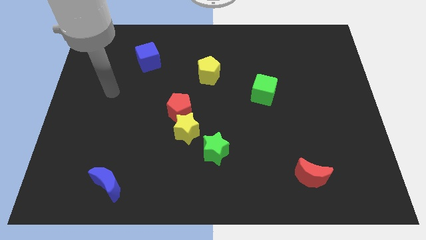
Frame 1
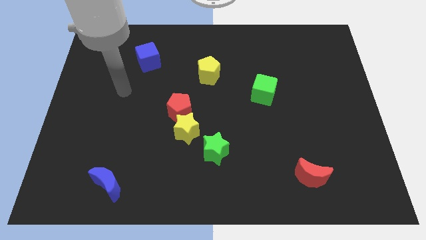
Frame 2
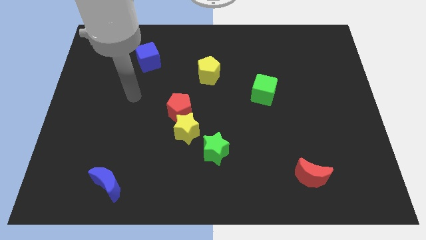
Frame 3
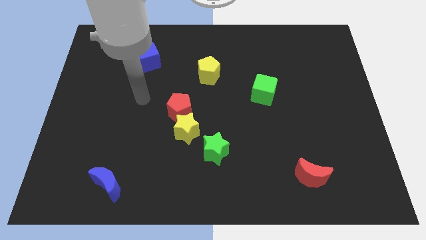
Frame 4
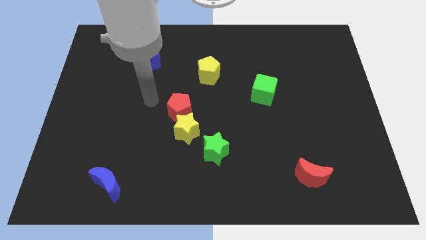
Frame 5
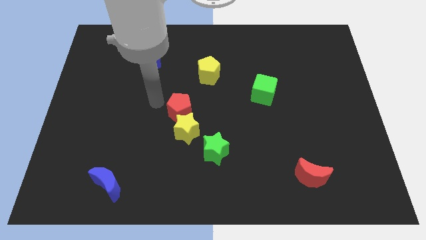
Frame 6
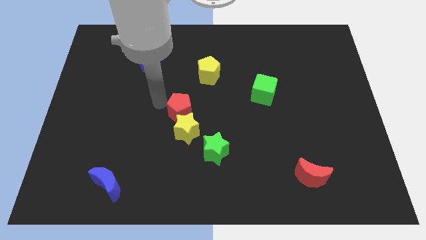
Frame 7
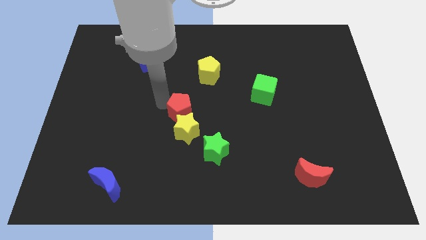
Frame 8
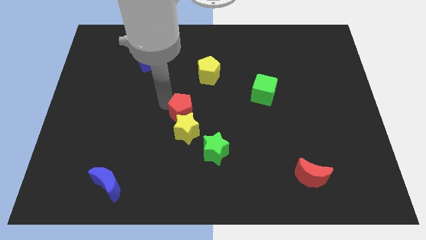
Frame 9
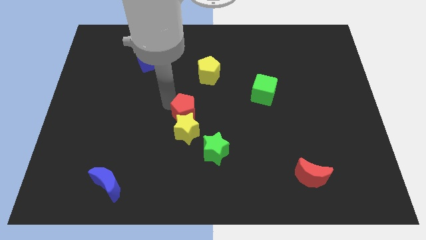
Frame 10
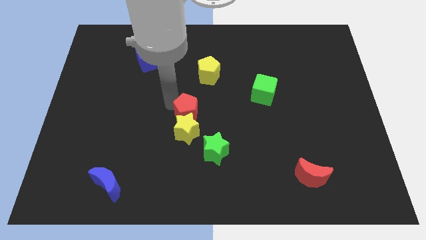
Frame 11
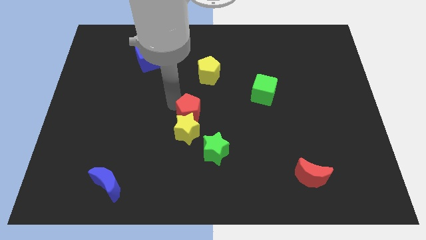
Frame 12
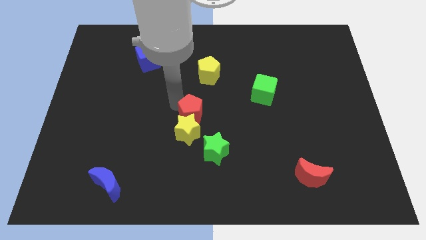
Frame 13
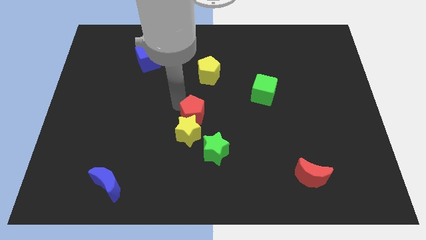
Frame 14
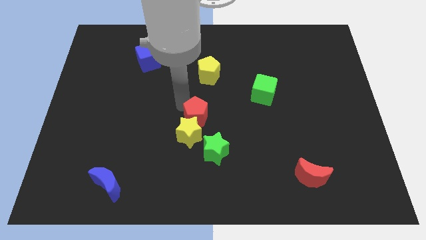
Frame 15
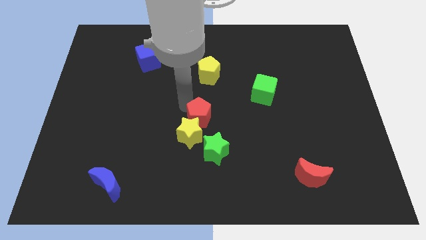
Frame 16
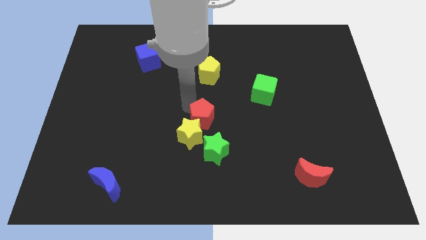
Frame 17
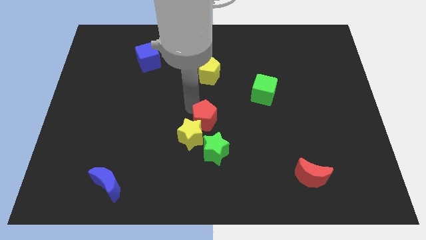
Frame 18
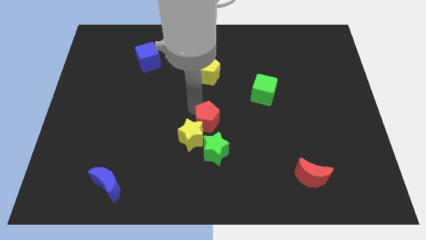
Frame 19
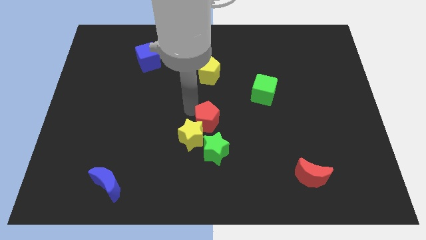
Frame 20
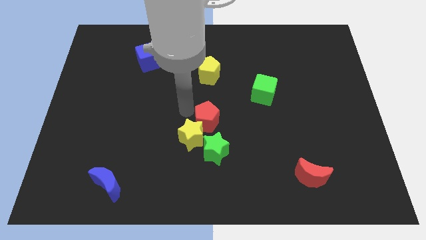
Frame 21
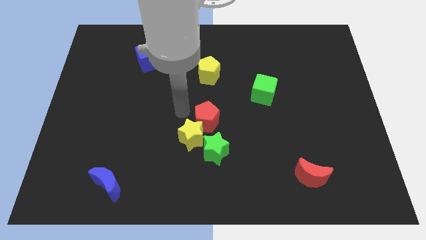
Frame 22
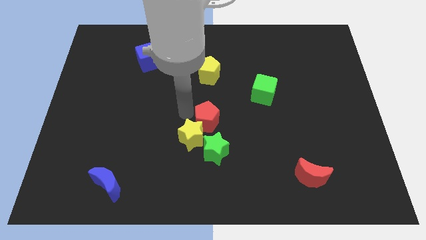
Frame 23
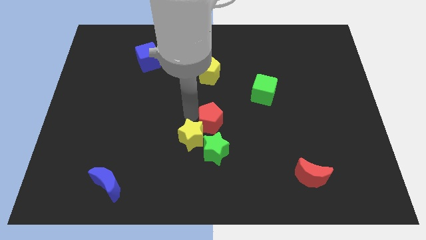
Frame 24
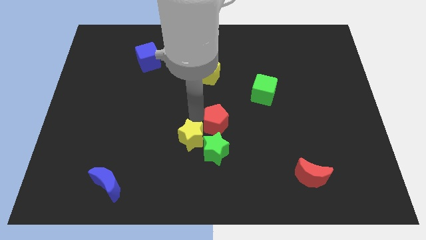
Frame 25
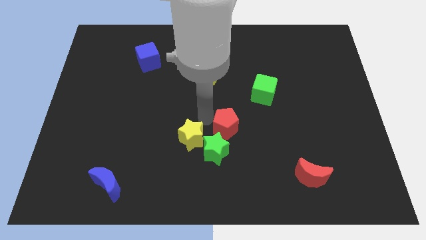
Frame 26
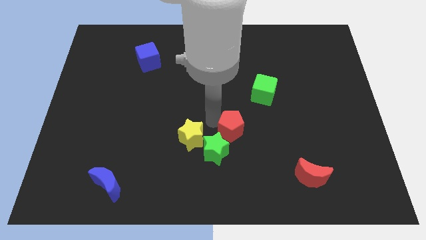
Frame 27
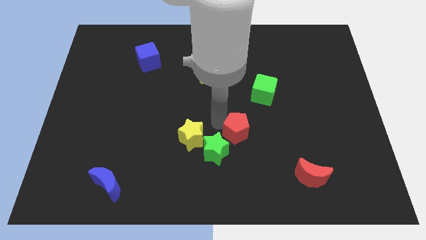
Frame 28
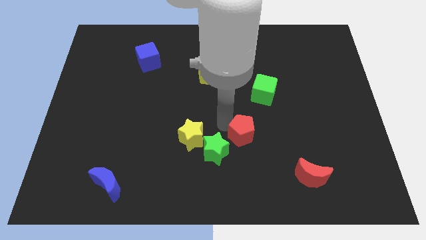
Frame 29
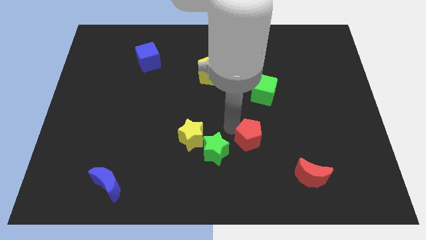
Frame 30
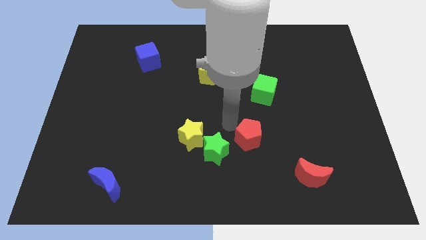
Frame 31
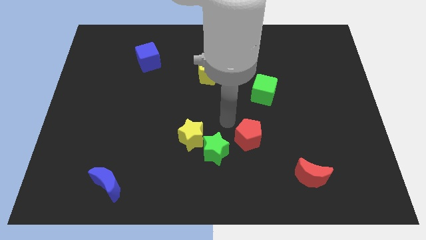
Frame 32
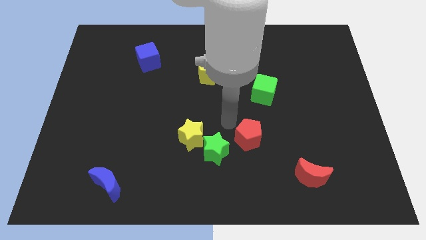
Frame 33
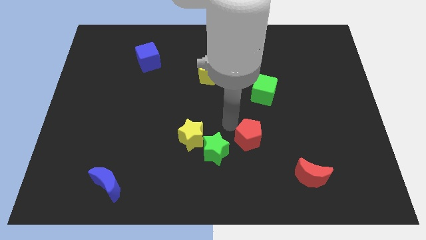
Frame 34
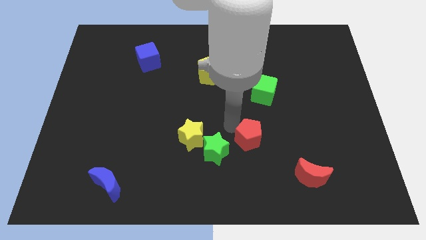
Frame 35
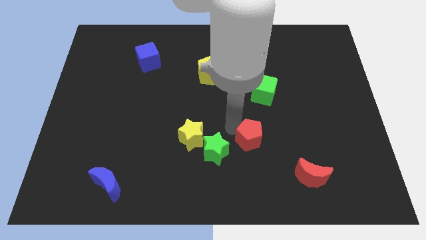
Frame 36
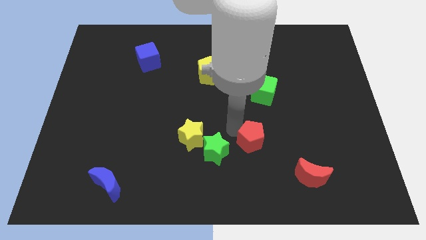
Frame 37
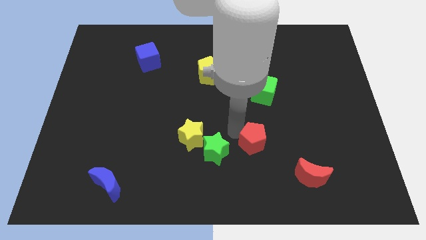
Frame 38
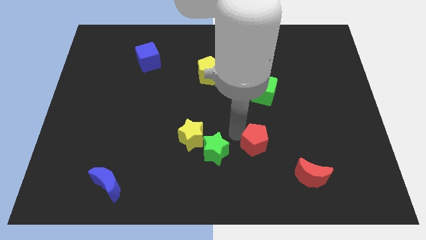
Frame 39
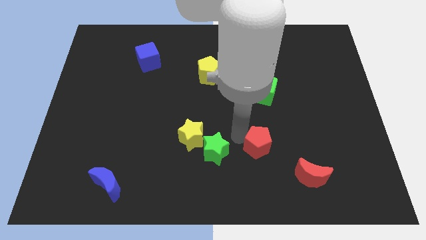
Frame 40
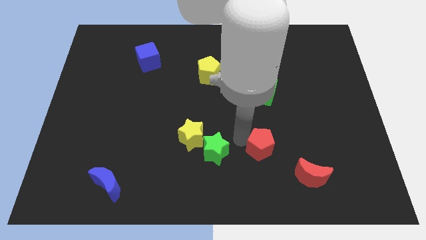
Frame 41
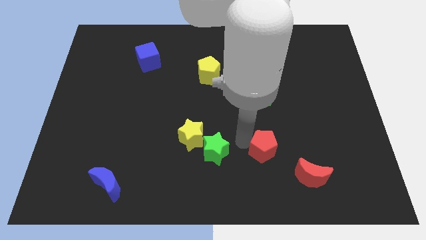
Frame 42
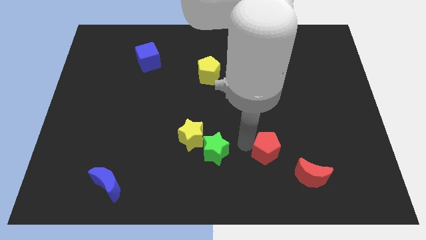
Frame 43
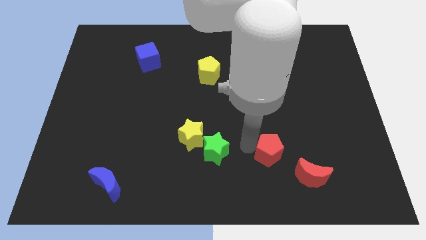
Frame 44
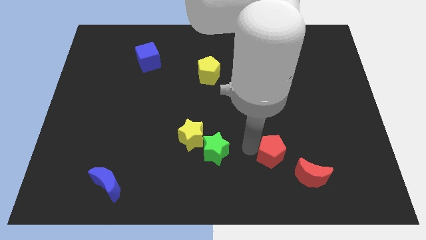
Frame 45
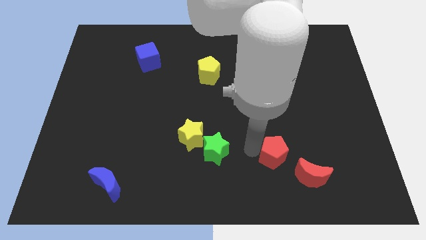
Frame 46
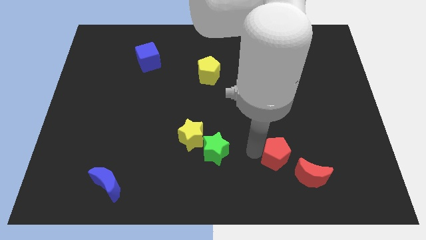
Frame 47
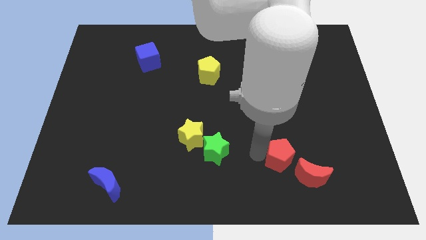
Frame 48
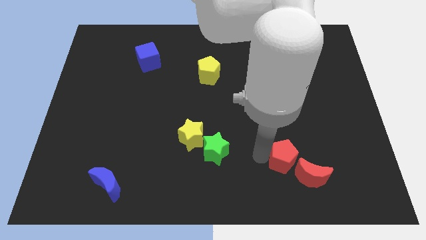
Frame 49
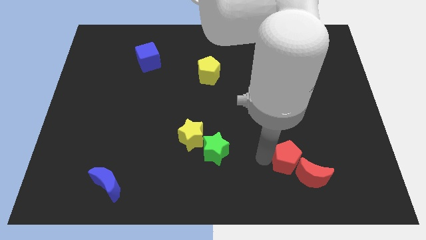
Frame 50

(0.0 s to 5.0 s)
push the red pentagon to the red moon

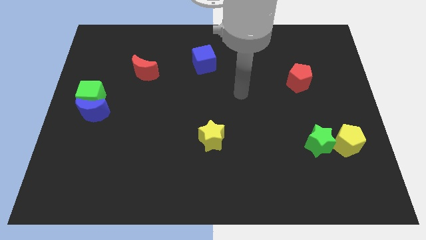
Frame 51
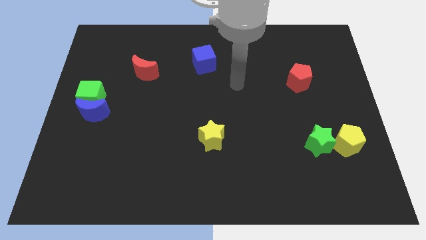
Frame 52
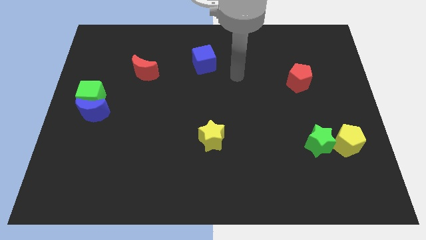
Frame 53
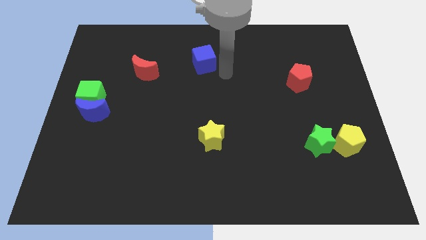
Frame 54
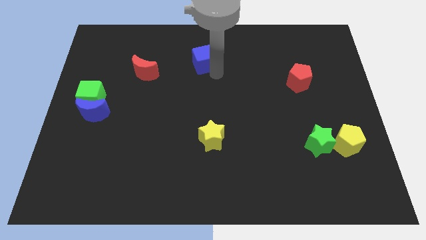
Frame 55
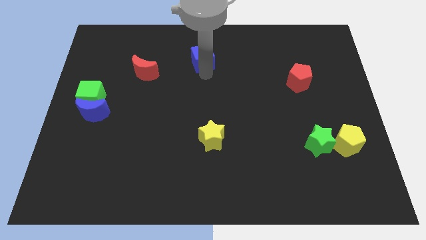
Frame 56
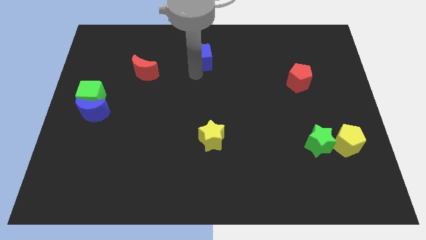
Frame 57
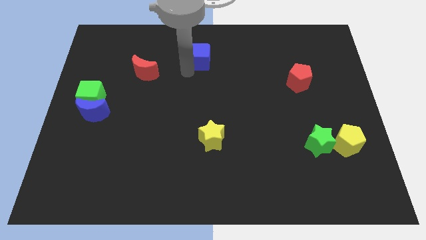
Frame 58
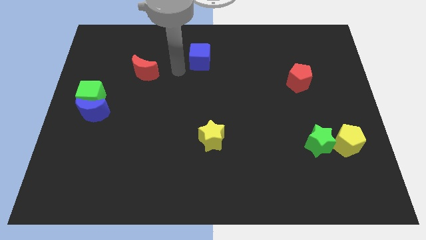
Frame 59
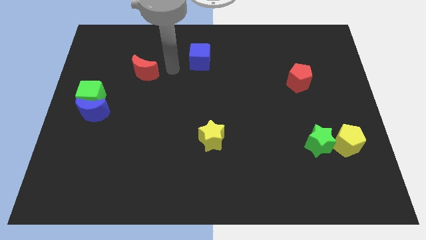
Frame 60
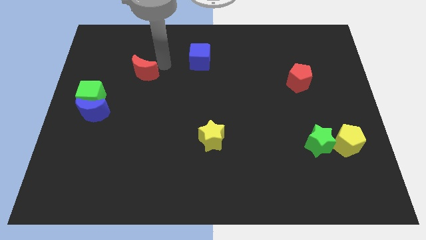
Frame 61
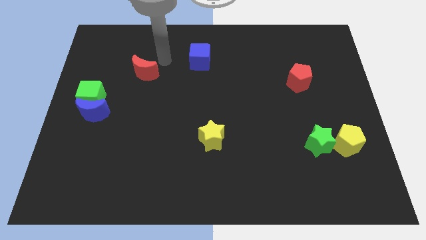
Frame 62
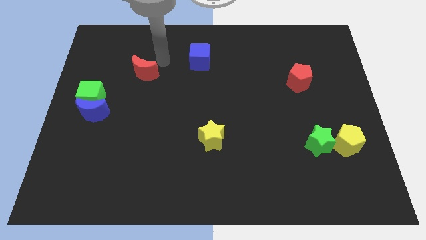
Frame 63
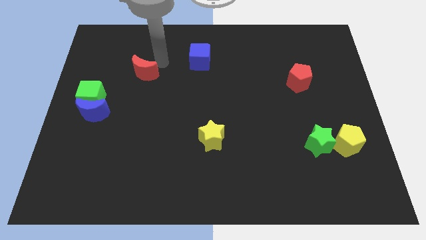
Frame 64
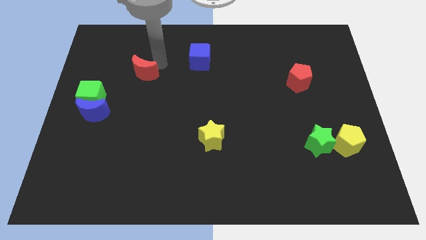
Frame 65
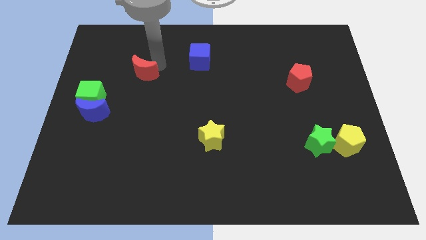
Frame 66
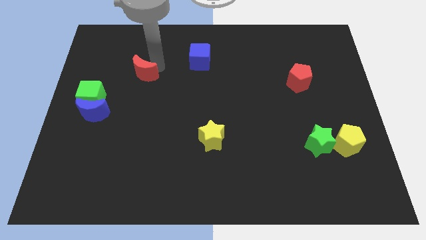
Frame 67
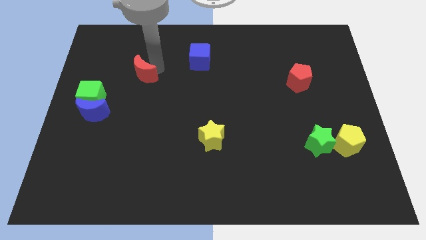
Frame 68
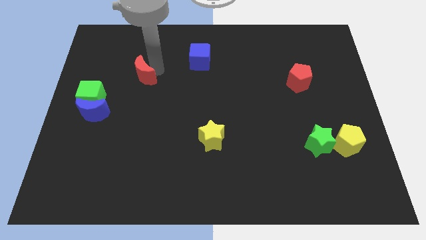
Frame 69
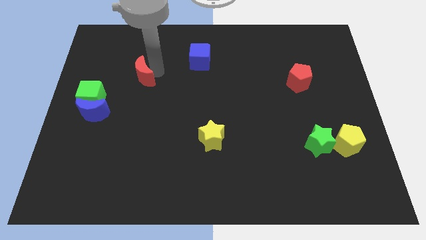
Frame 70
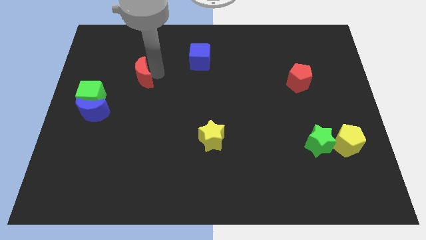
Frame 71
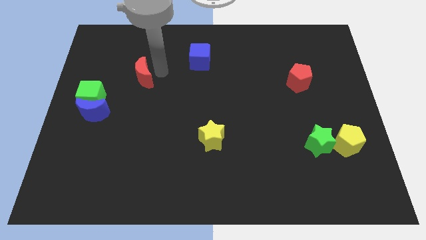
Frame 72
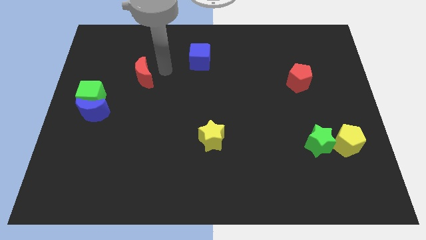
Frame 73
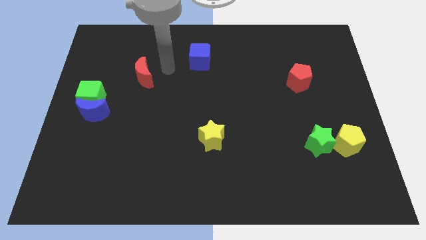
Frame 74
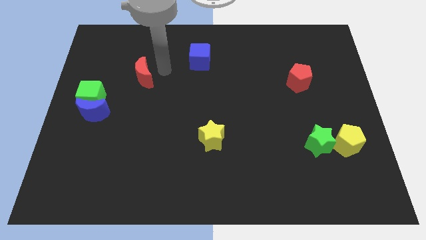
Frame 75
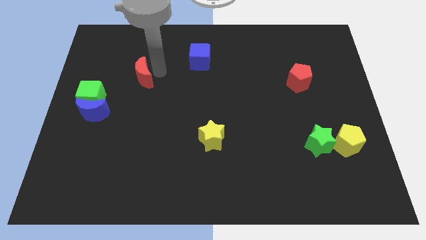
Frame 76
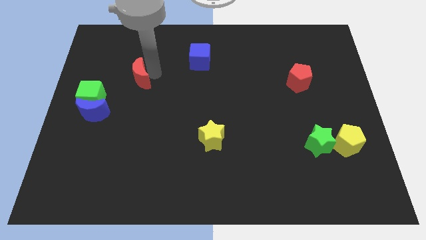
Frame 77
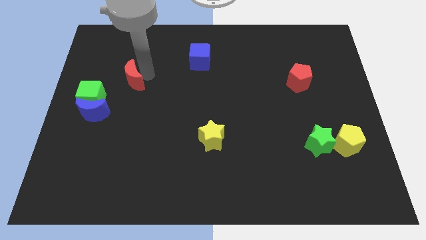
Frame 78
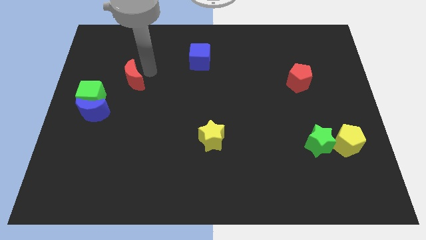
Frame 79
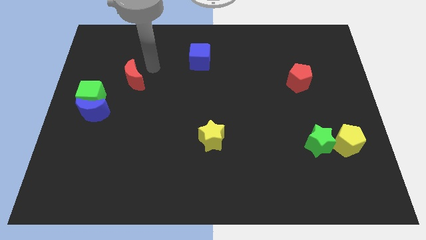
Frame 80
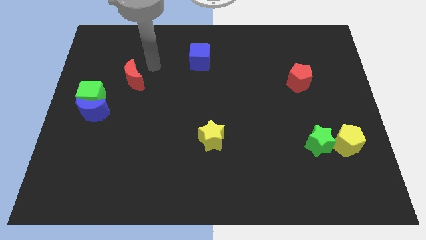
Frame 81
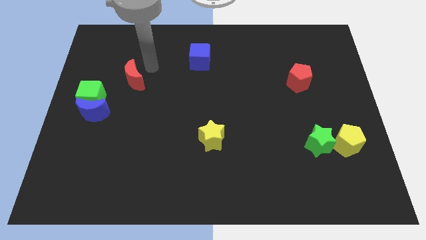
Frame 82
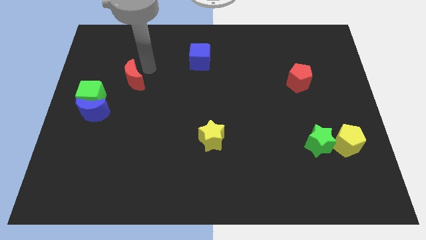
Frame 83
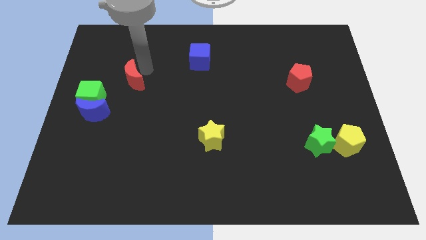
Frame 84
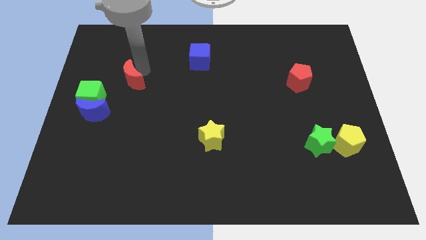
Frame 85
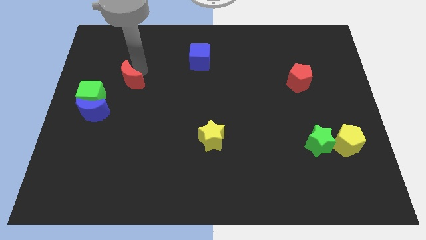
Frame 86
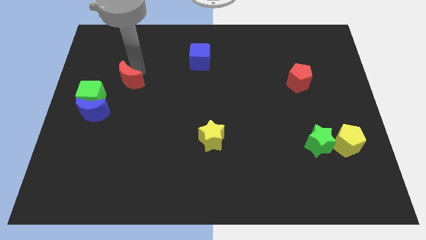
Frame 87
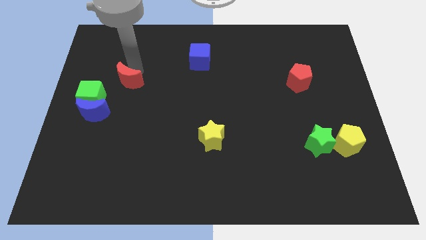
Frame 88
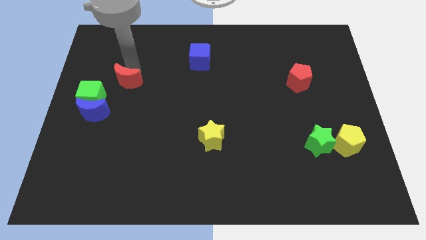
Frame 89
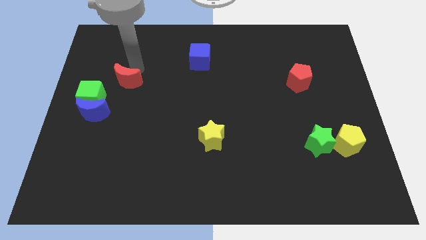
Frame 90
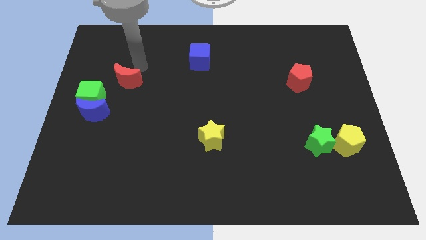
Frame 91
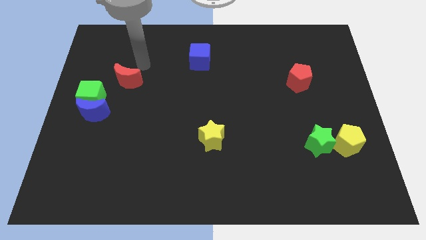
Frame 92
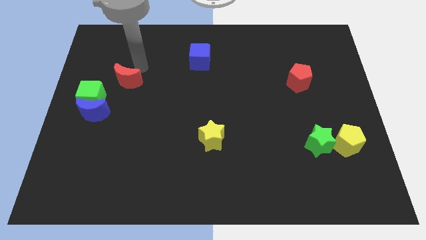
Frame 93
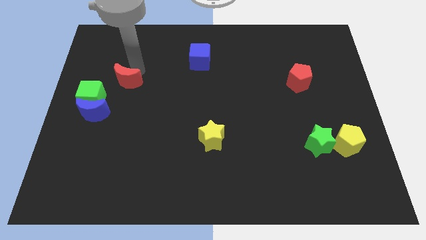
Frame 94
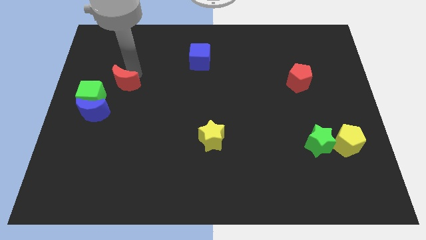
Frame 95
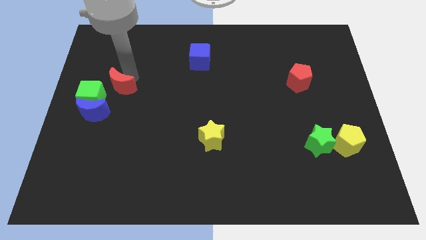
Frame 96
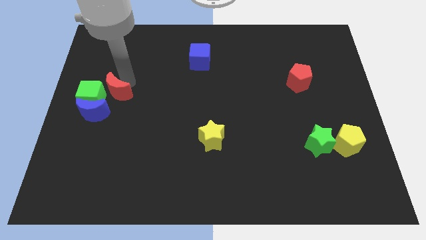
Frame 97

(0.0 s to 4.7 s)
slide the red moon to the green cube
